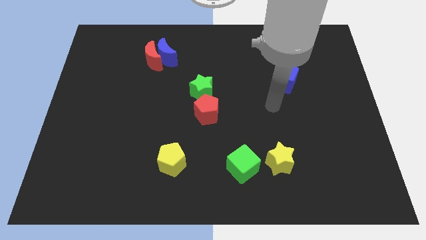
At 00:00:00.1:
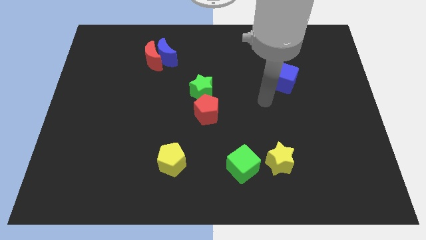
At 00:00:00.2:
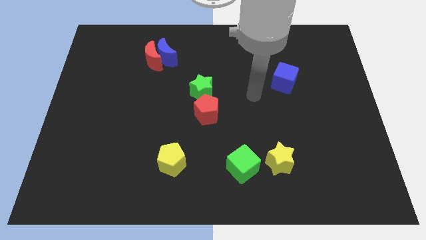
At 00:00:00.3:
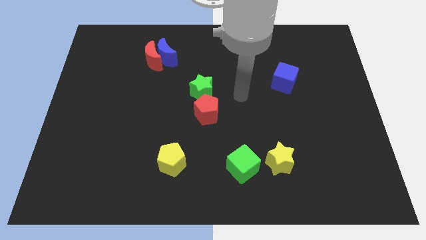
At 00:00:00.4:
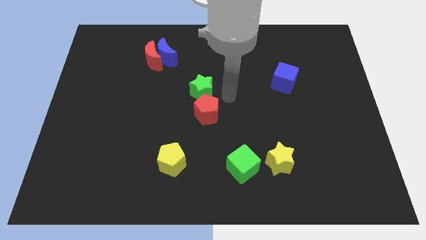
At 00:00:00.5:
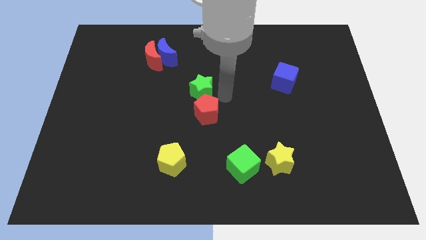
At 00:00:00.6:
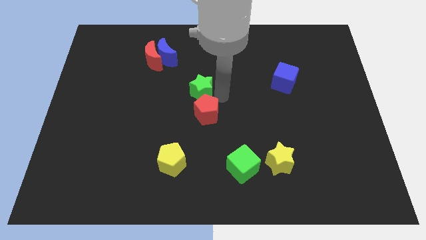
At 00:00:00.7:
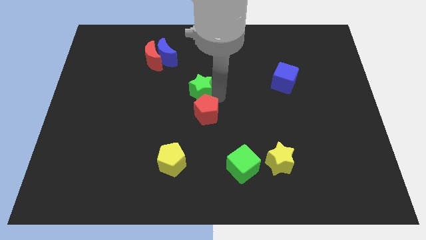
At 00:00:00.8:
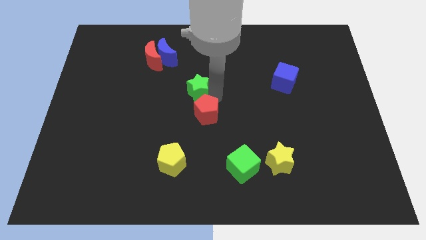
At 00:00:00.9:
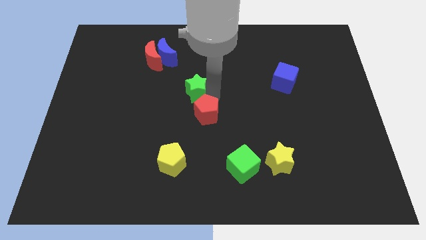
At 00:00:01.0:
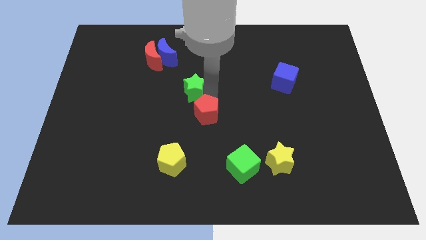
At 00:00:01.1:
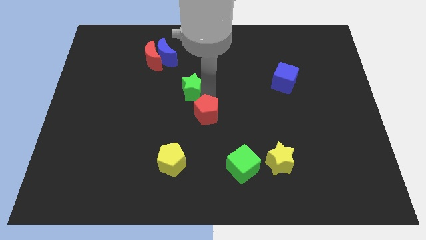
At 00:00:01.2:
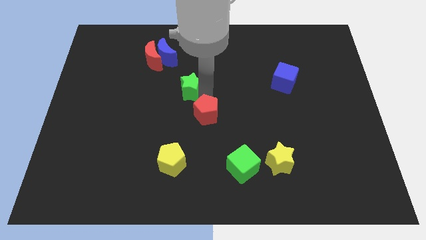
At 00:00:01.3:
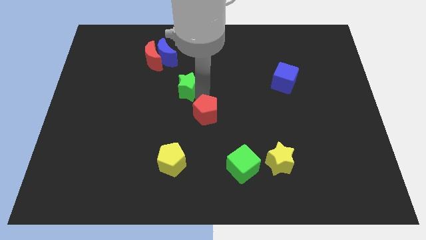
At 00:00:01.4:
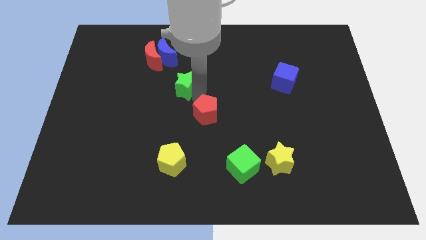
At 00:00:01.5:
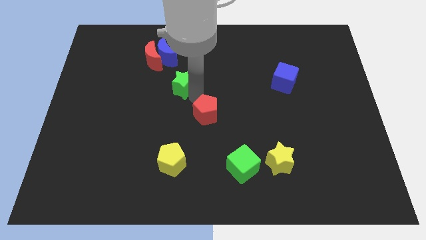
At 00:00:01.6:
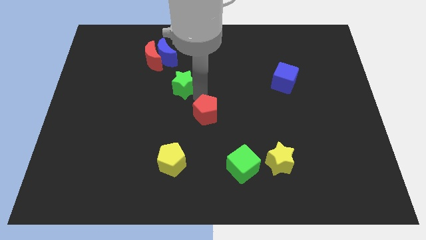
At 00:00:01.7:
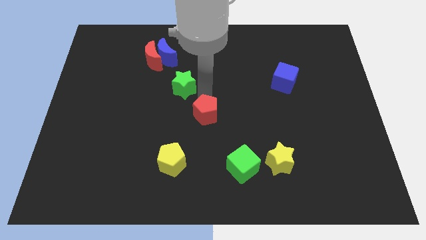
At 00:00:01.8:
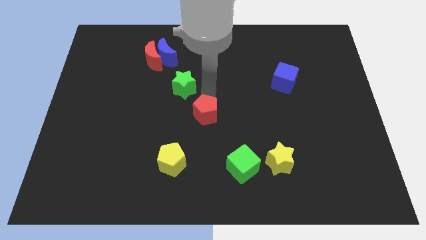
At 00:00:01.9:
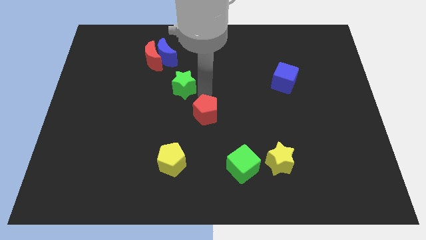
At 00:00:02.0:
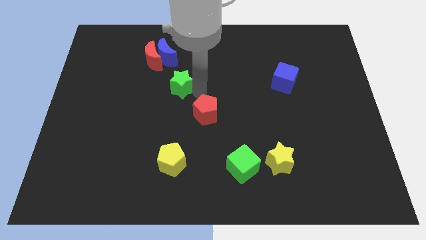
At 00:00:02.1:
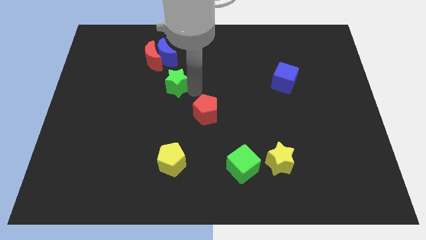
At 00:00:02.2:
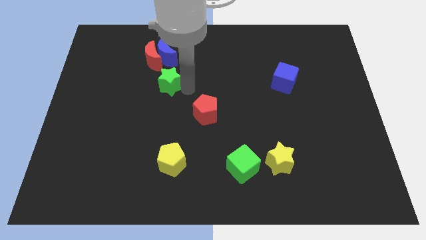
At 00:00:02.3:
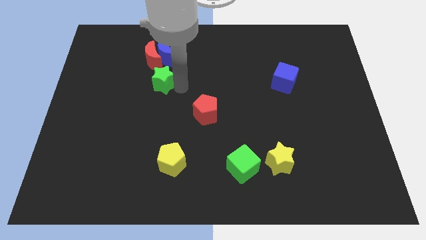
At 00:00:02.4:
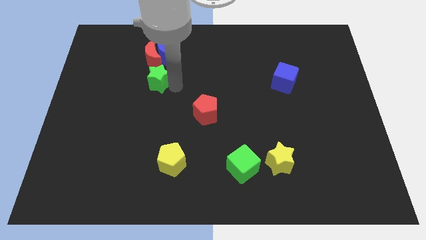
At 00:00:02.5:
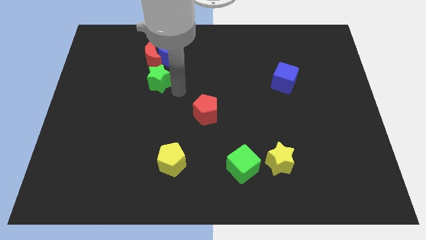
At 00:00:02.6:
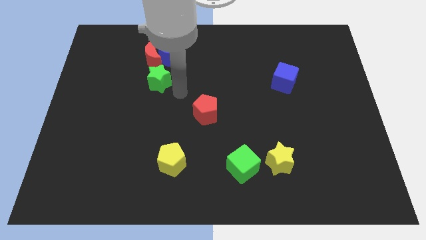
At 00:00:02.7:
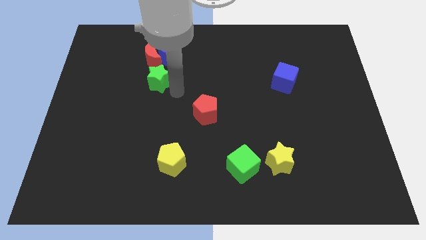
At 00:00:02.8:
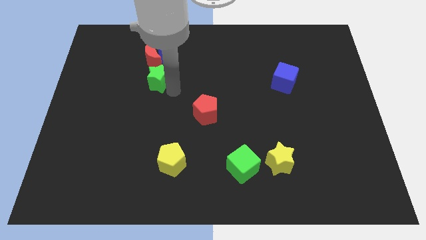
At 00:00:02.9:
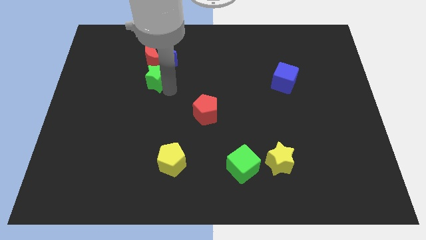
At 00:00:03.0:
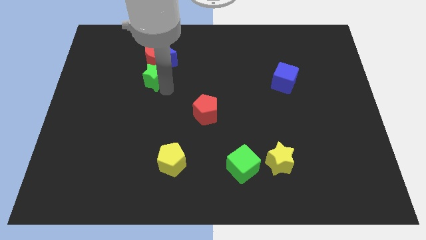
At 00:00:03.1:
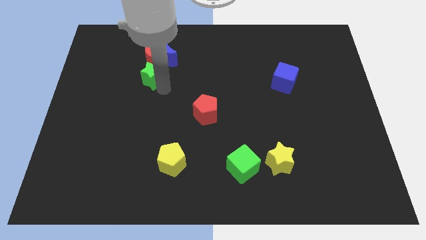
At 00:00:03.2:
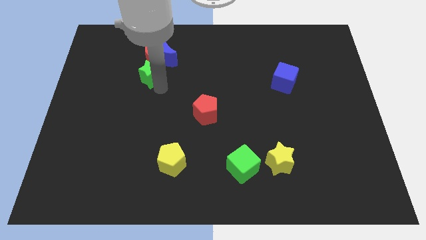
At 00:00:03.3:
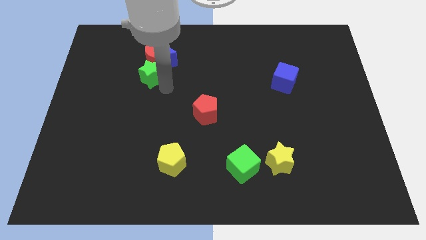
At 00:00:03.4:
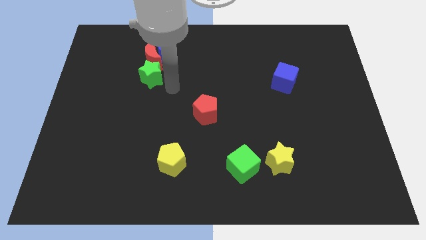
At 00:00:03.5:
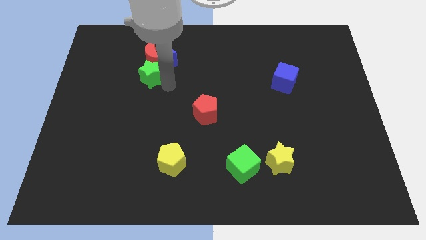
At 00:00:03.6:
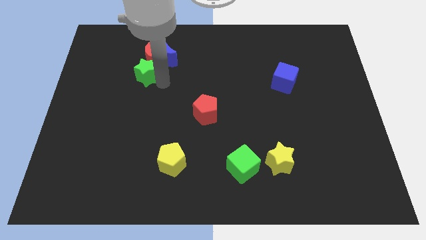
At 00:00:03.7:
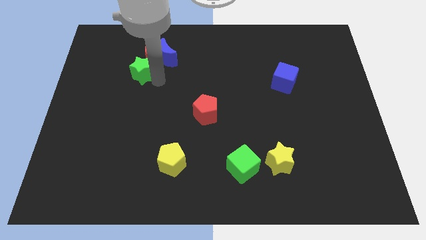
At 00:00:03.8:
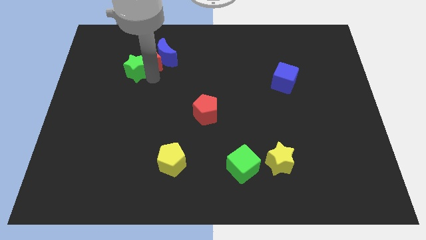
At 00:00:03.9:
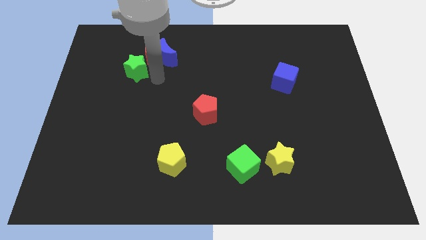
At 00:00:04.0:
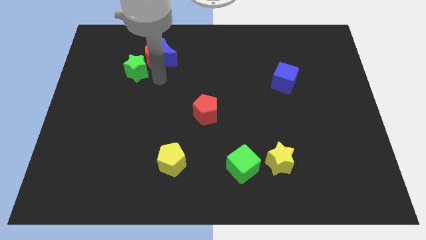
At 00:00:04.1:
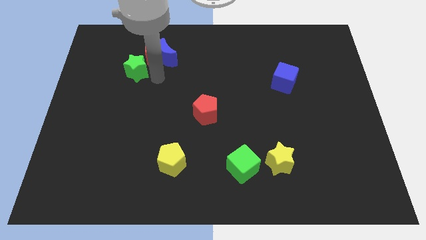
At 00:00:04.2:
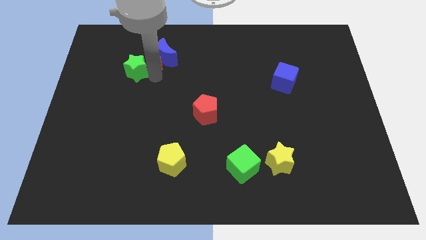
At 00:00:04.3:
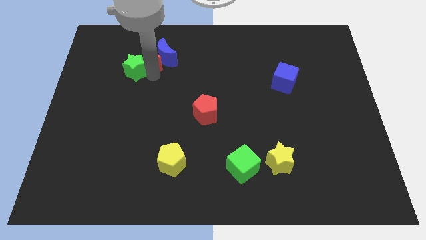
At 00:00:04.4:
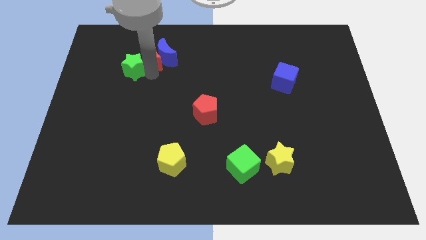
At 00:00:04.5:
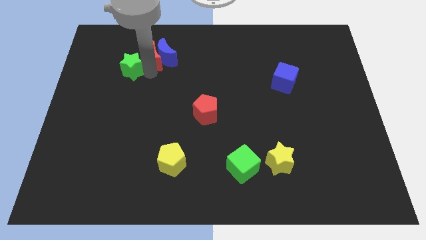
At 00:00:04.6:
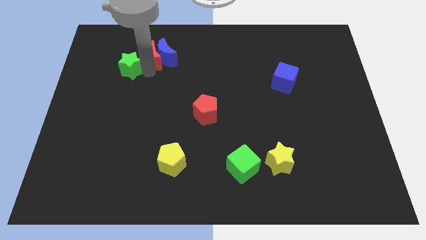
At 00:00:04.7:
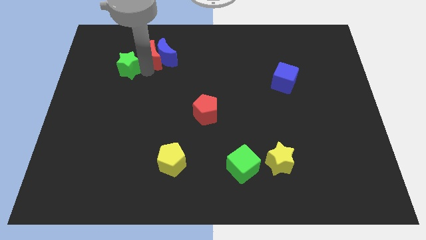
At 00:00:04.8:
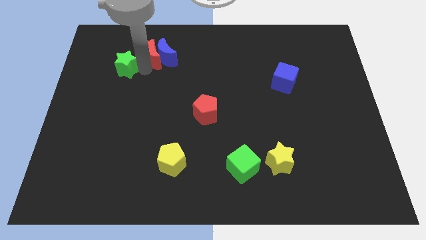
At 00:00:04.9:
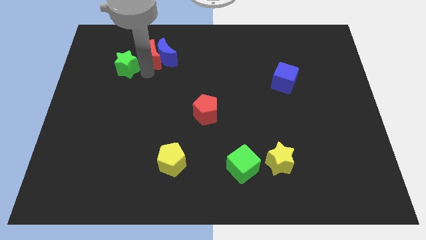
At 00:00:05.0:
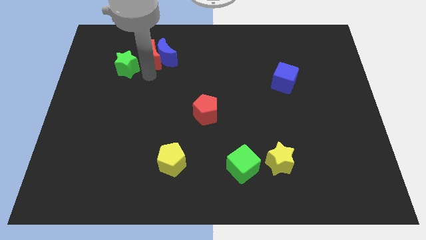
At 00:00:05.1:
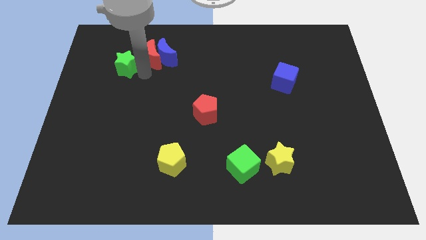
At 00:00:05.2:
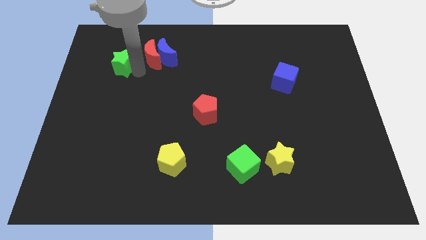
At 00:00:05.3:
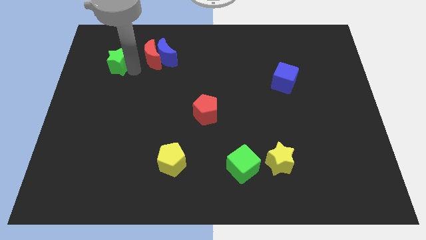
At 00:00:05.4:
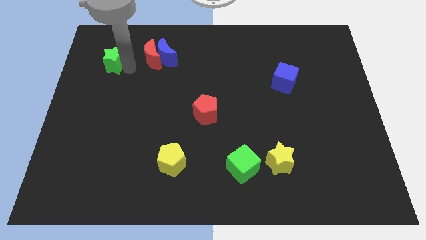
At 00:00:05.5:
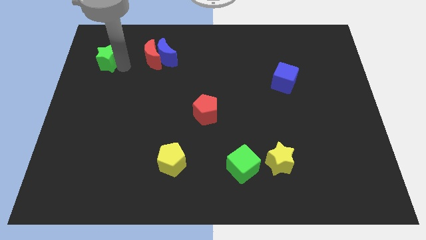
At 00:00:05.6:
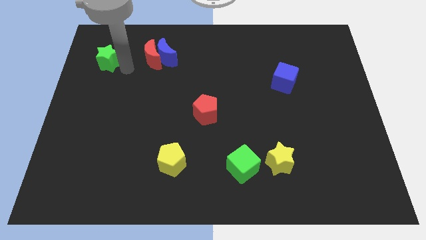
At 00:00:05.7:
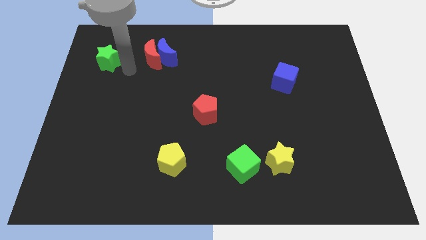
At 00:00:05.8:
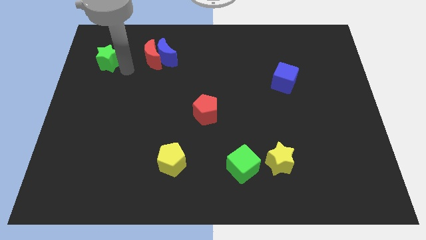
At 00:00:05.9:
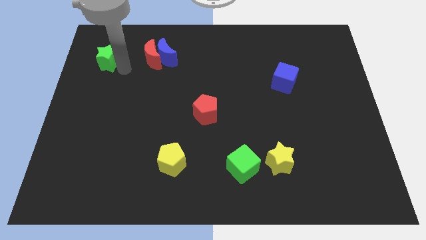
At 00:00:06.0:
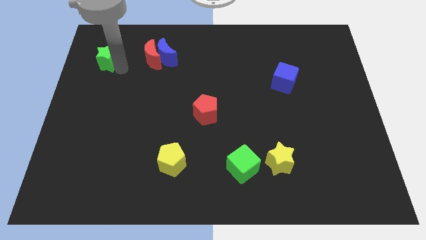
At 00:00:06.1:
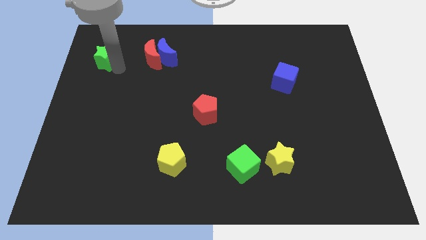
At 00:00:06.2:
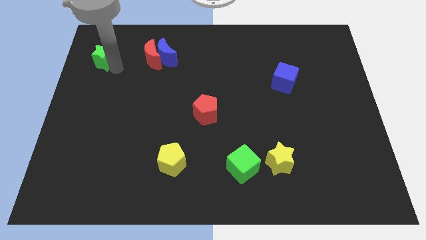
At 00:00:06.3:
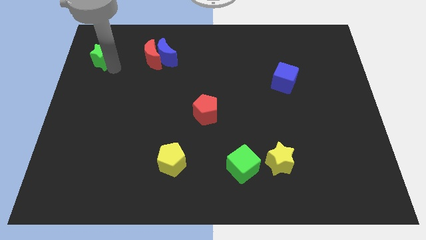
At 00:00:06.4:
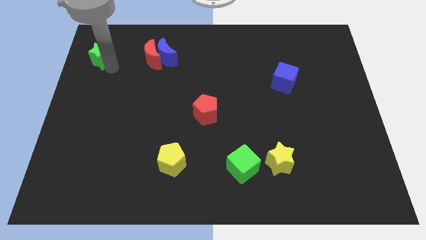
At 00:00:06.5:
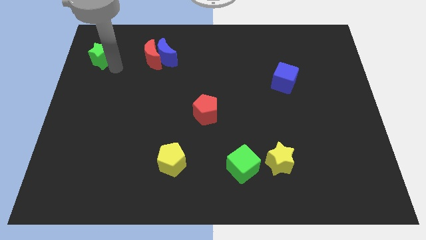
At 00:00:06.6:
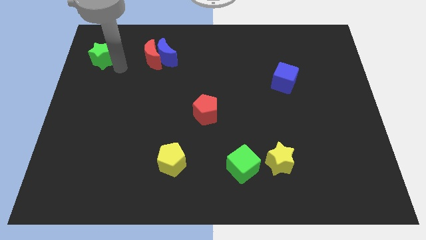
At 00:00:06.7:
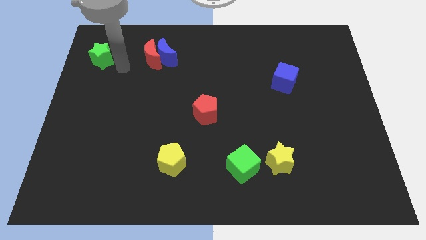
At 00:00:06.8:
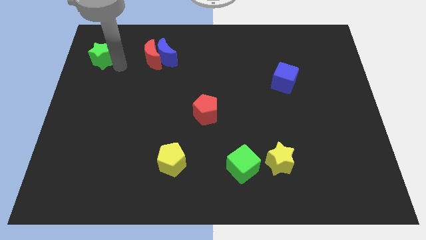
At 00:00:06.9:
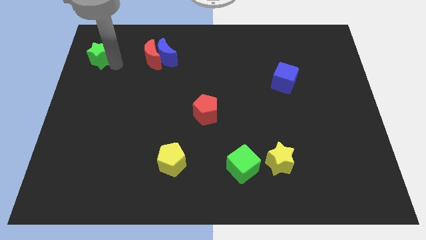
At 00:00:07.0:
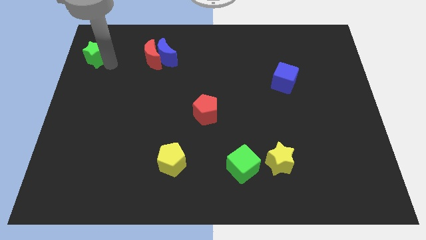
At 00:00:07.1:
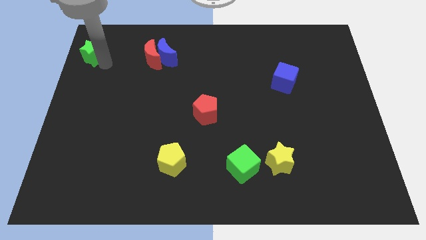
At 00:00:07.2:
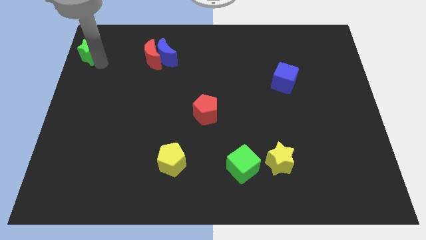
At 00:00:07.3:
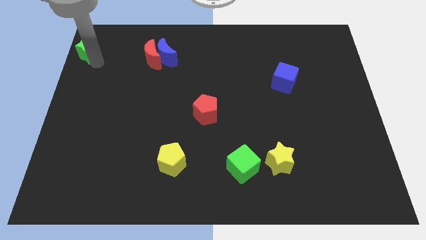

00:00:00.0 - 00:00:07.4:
slide the green star to the top left

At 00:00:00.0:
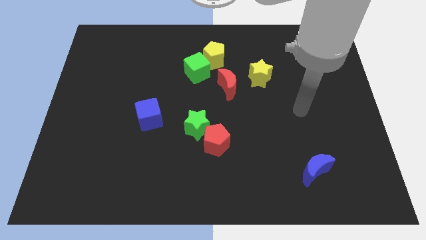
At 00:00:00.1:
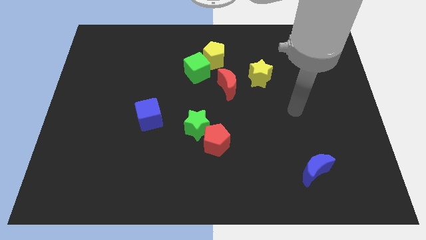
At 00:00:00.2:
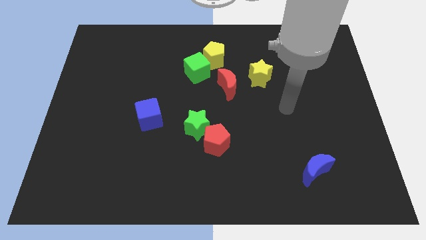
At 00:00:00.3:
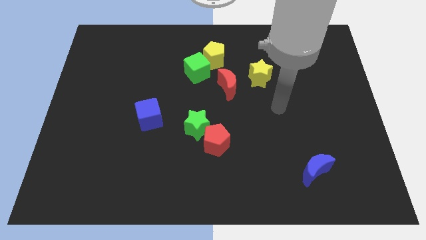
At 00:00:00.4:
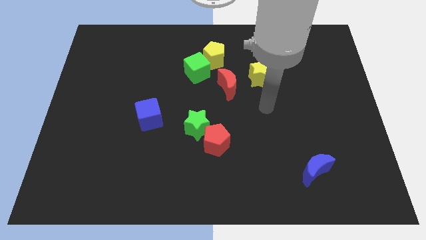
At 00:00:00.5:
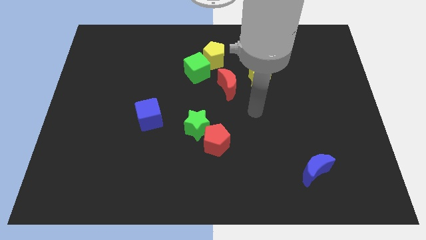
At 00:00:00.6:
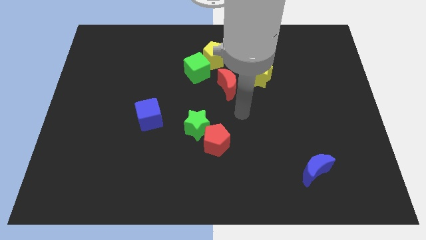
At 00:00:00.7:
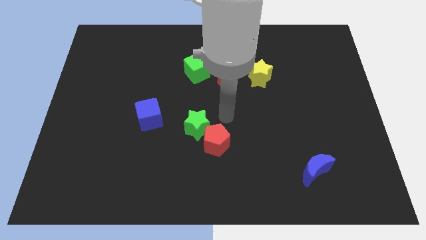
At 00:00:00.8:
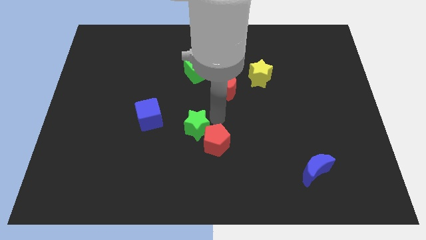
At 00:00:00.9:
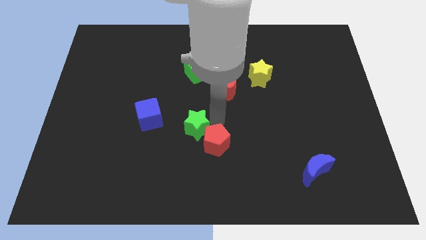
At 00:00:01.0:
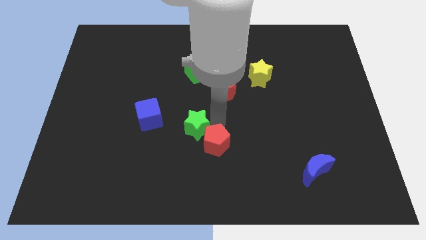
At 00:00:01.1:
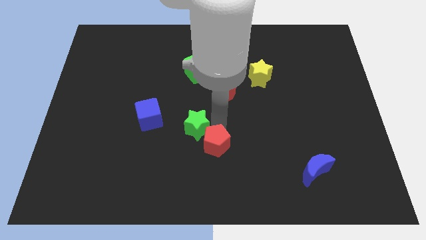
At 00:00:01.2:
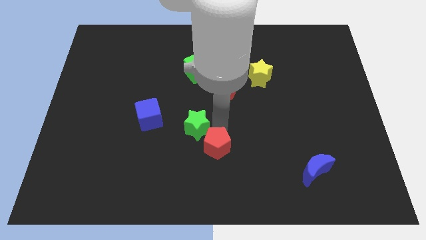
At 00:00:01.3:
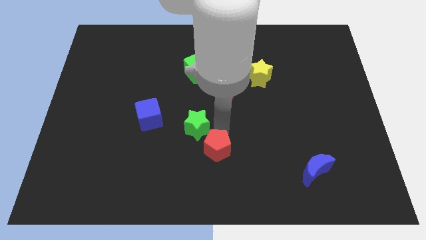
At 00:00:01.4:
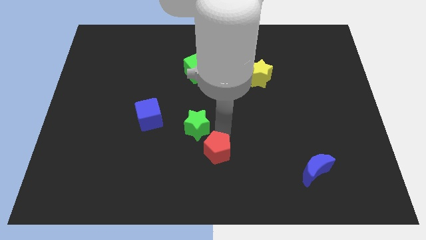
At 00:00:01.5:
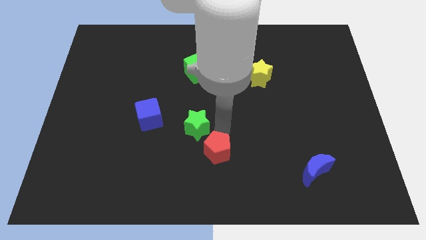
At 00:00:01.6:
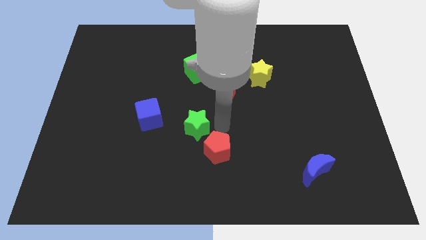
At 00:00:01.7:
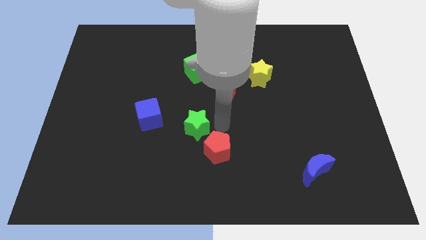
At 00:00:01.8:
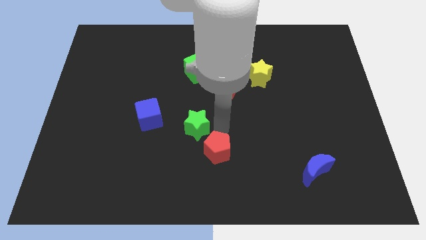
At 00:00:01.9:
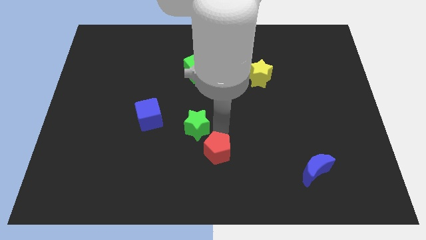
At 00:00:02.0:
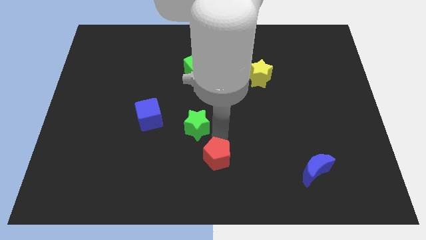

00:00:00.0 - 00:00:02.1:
push the red pentagon to the bottom side
